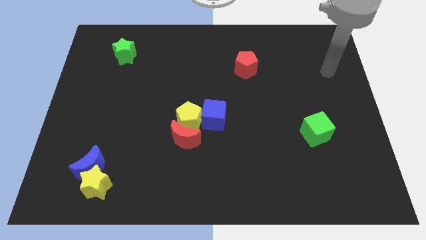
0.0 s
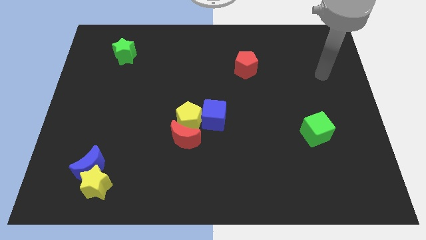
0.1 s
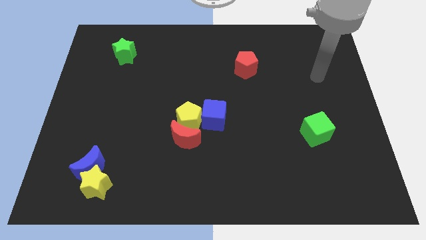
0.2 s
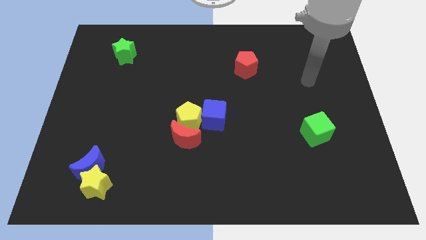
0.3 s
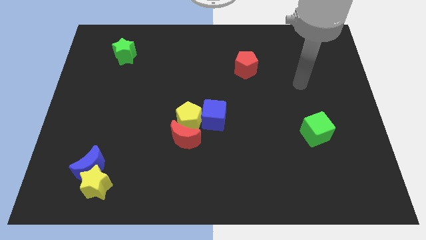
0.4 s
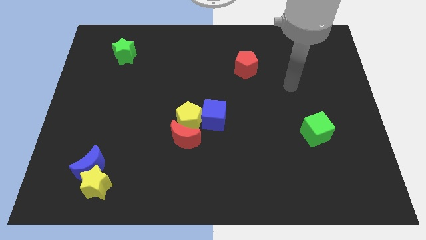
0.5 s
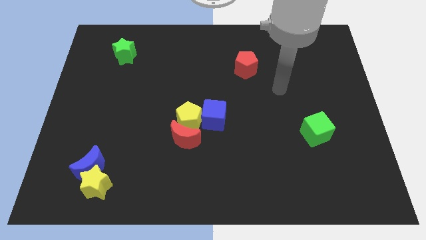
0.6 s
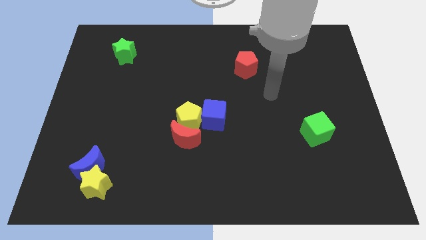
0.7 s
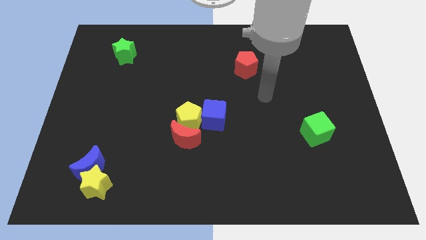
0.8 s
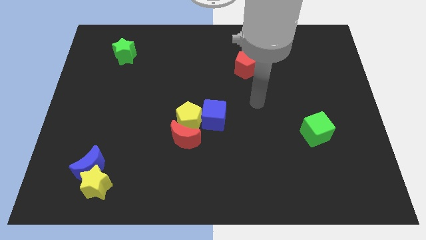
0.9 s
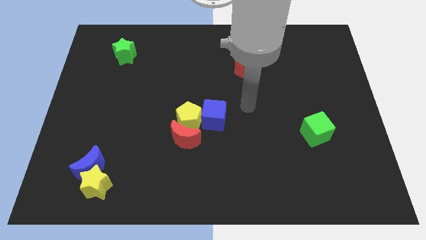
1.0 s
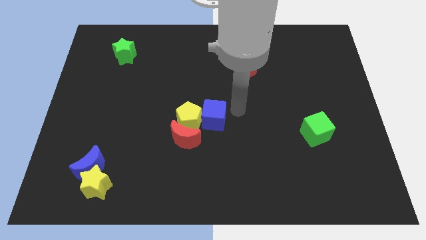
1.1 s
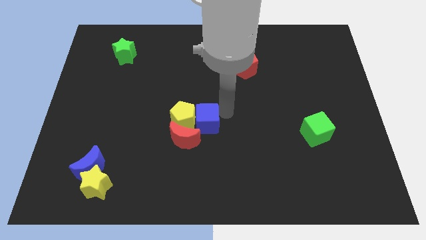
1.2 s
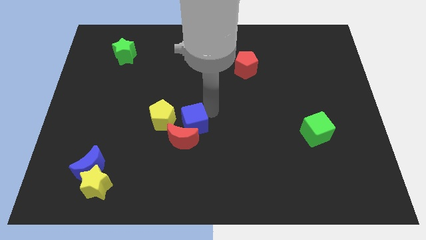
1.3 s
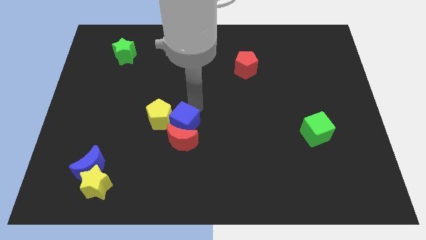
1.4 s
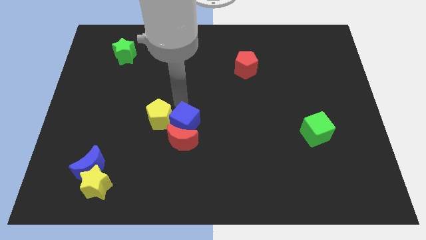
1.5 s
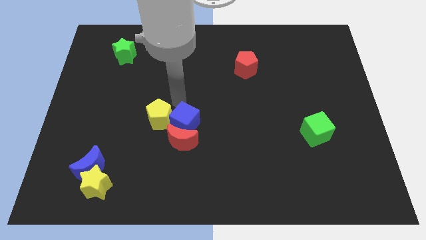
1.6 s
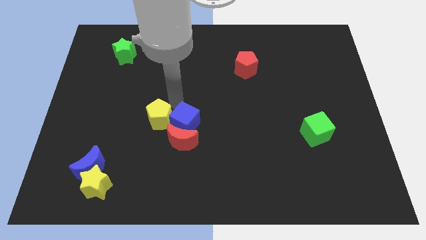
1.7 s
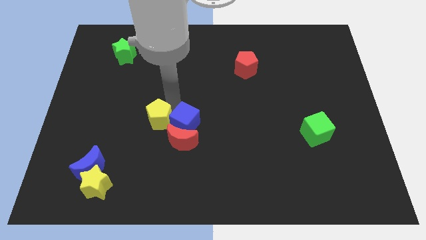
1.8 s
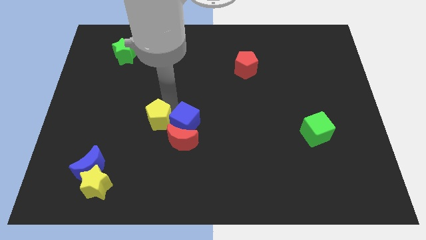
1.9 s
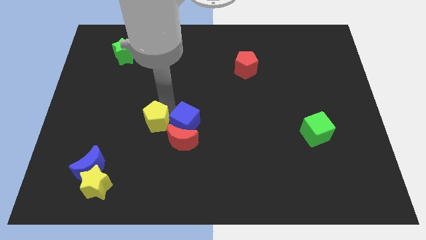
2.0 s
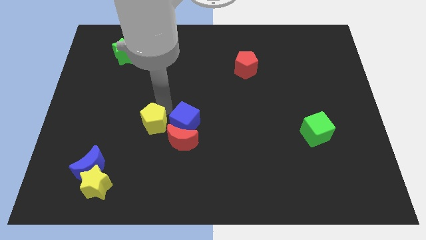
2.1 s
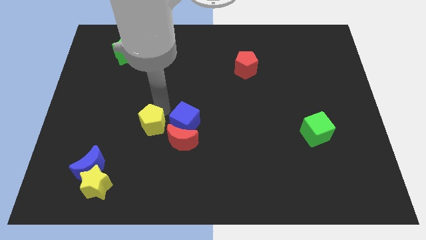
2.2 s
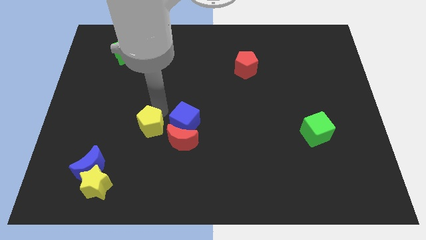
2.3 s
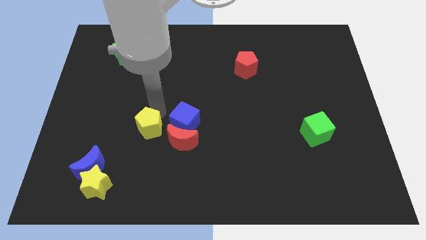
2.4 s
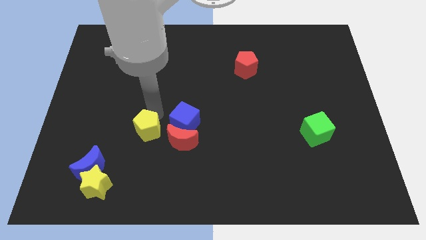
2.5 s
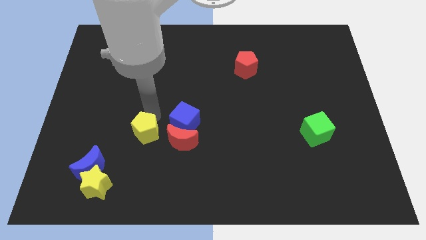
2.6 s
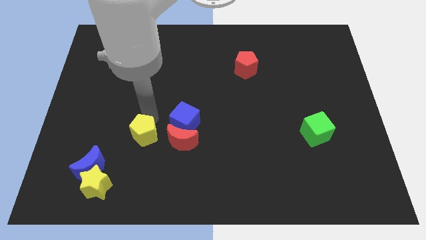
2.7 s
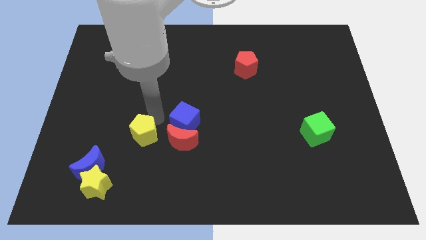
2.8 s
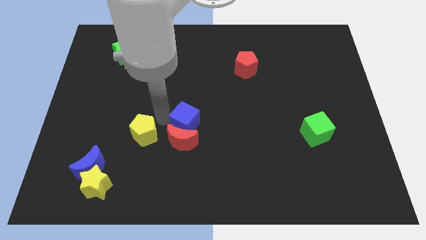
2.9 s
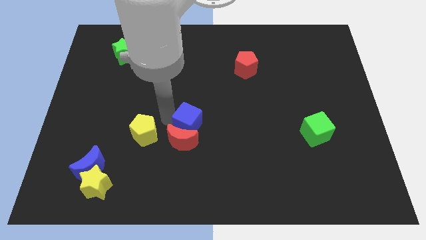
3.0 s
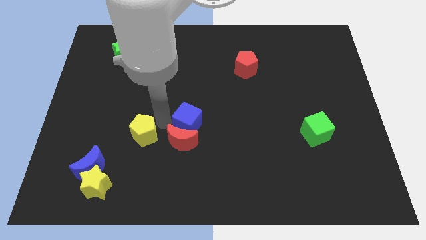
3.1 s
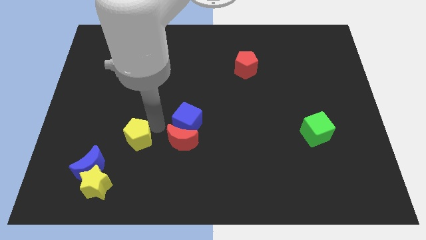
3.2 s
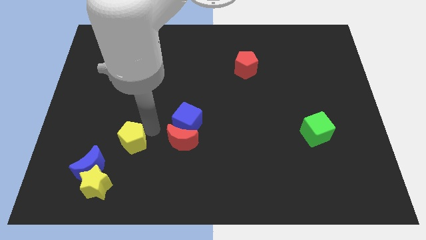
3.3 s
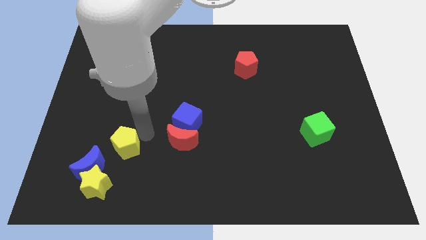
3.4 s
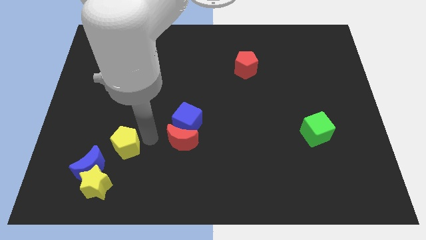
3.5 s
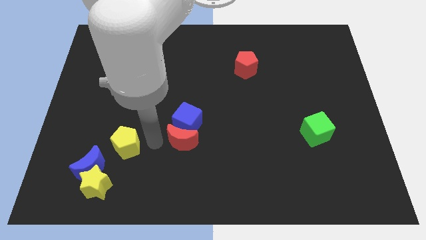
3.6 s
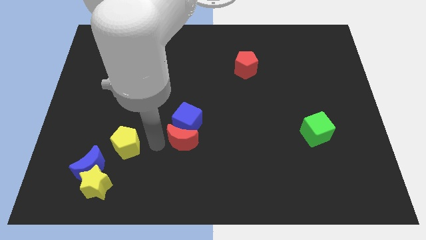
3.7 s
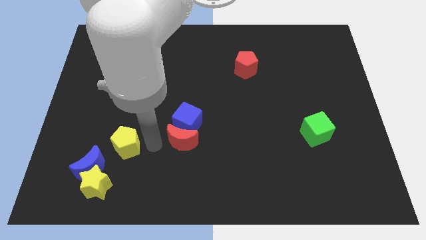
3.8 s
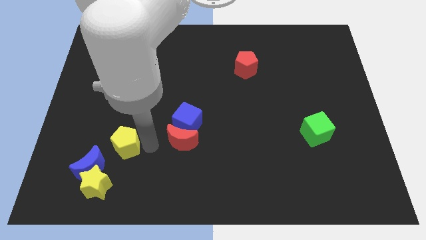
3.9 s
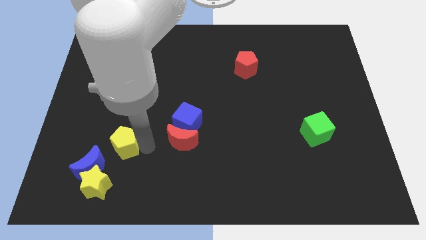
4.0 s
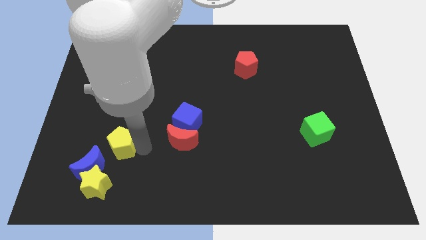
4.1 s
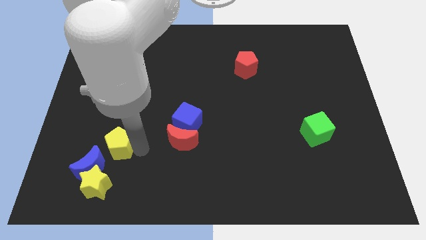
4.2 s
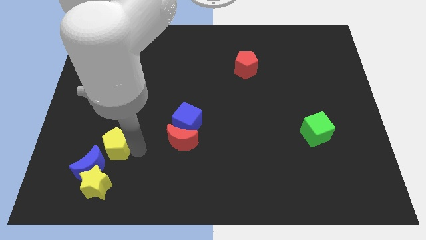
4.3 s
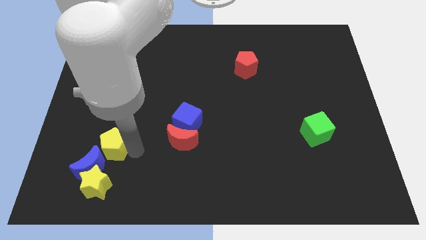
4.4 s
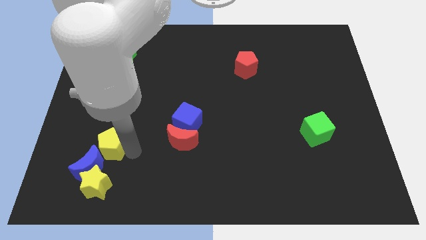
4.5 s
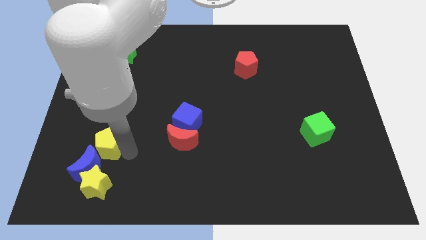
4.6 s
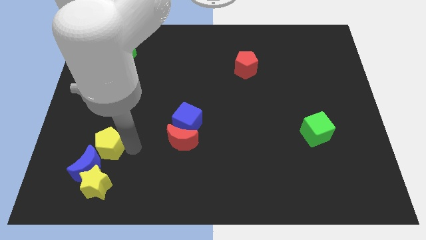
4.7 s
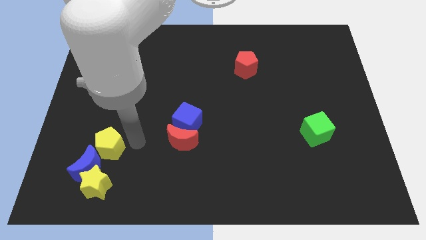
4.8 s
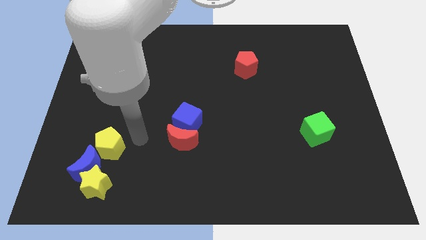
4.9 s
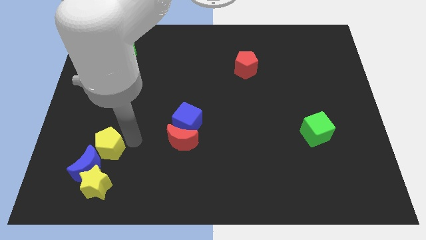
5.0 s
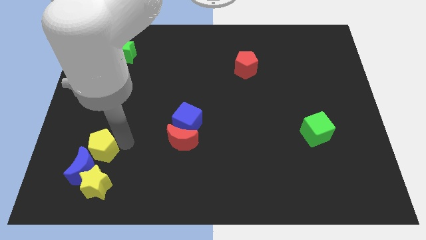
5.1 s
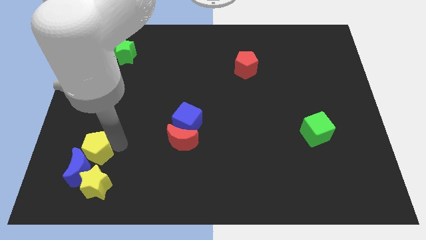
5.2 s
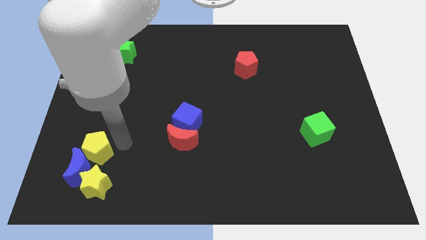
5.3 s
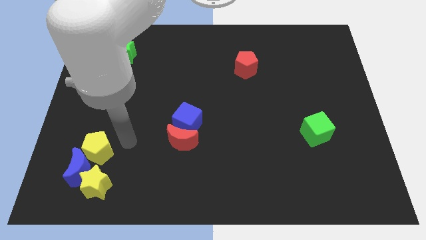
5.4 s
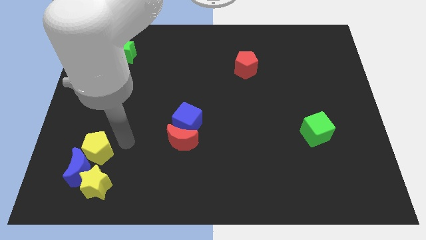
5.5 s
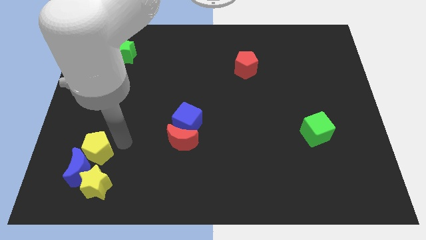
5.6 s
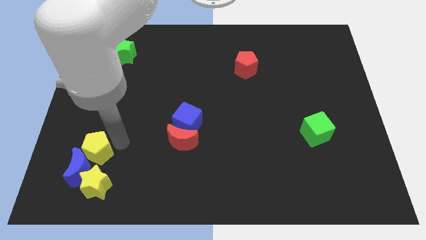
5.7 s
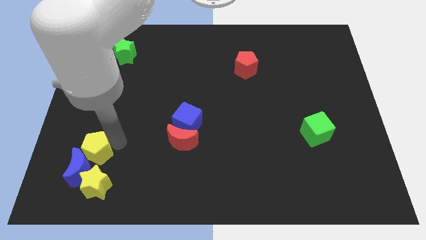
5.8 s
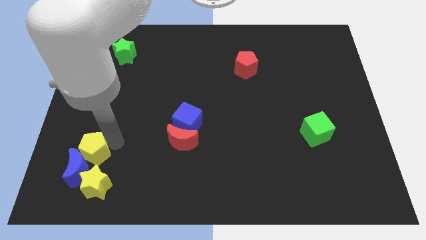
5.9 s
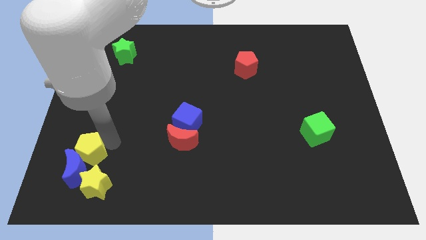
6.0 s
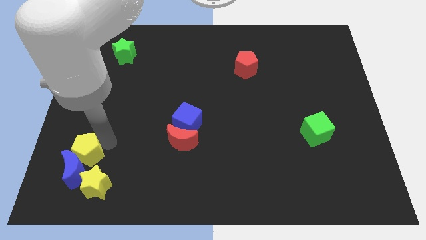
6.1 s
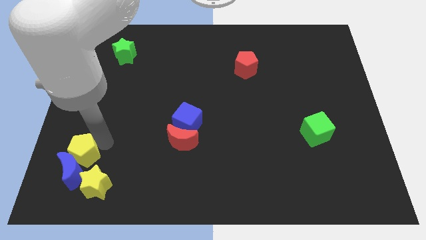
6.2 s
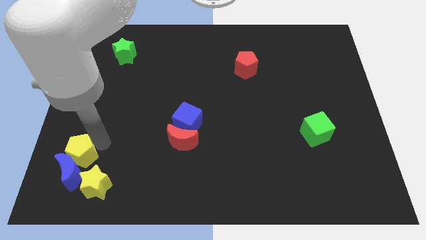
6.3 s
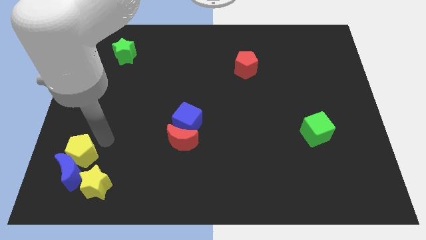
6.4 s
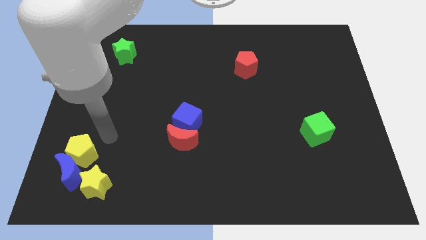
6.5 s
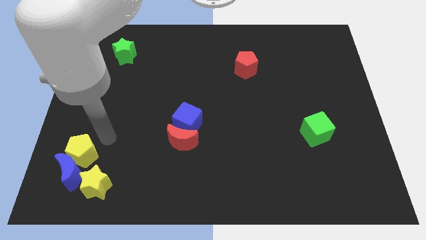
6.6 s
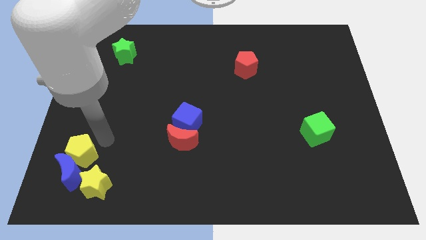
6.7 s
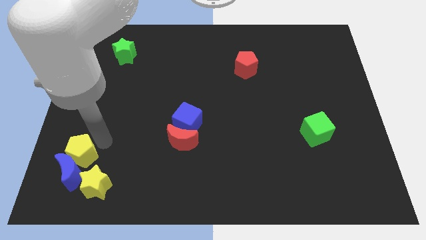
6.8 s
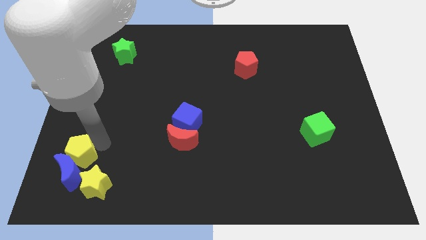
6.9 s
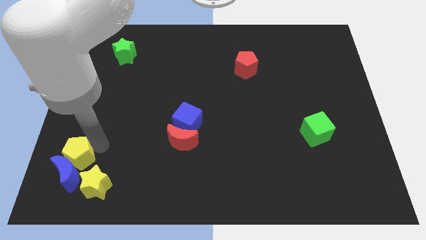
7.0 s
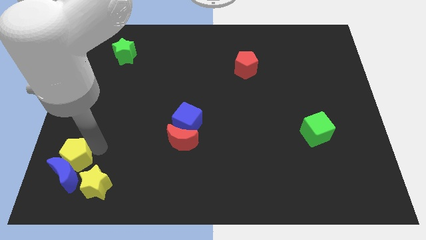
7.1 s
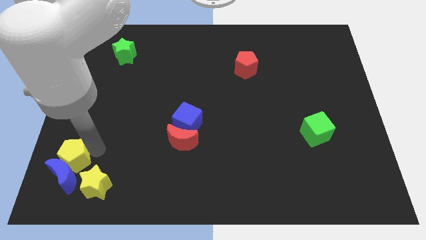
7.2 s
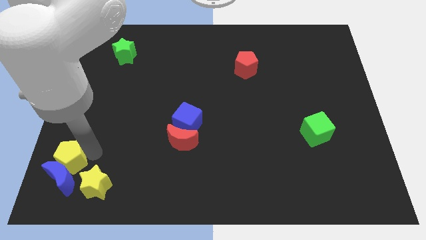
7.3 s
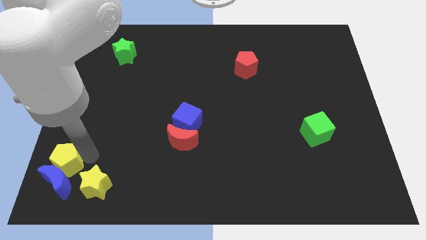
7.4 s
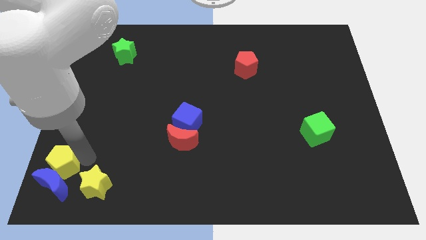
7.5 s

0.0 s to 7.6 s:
put the yellow pentagon to the bottom left
